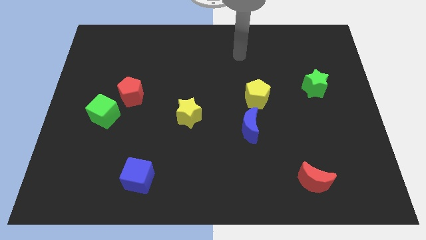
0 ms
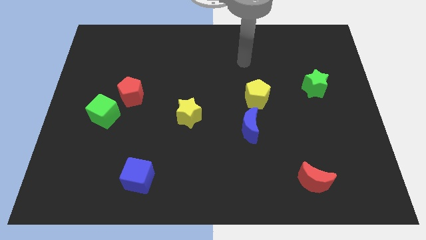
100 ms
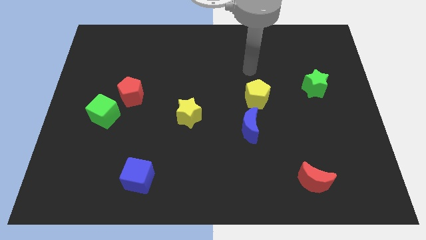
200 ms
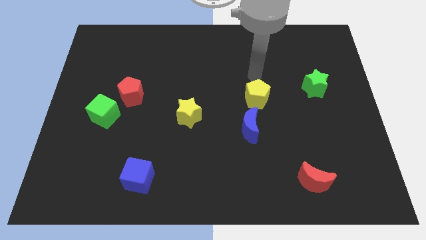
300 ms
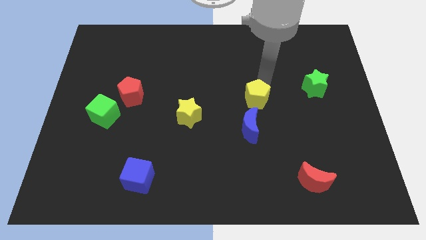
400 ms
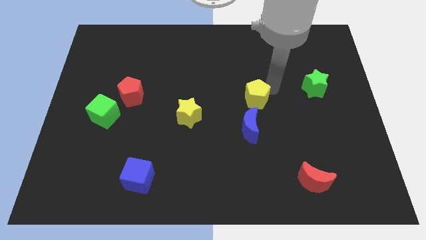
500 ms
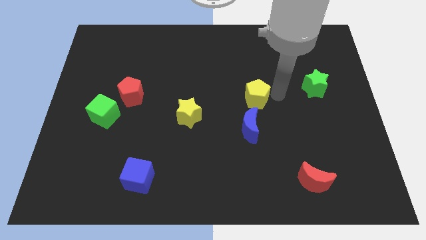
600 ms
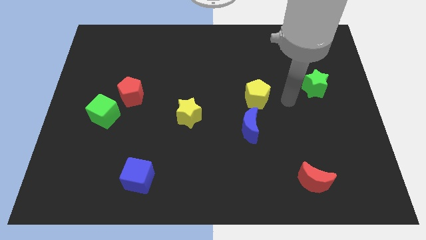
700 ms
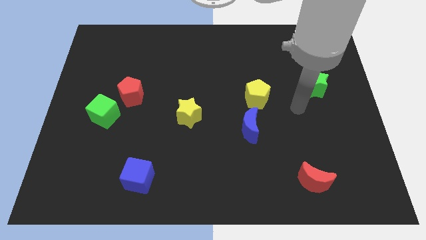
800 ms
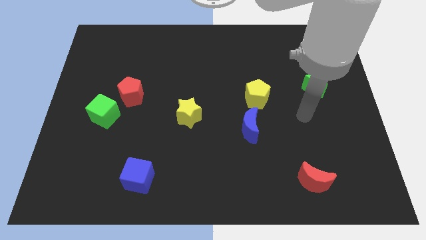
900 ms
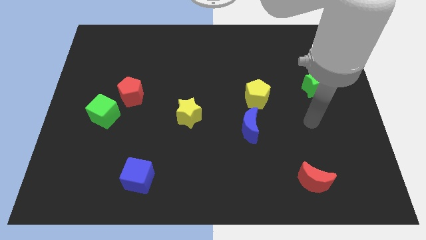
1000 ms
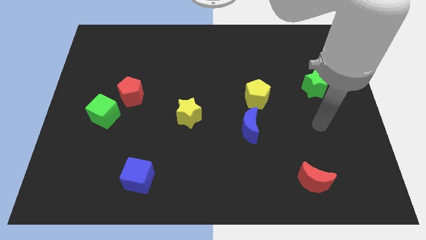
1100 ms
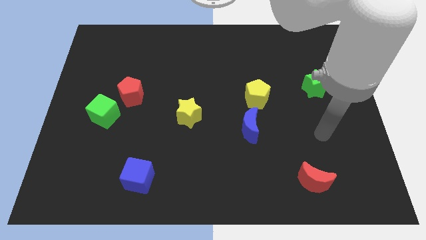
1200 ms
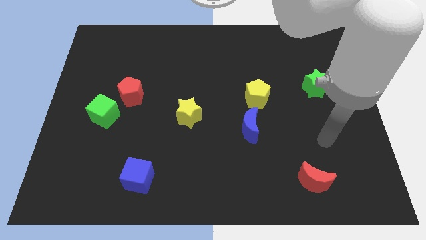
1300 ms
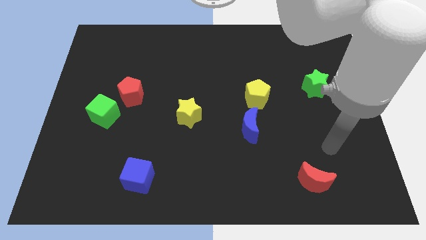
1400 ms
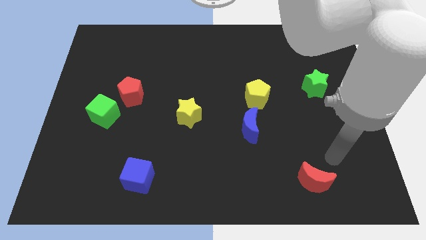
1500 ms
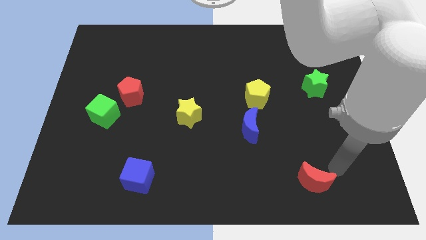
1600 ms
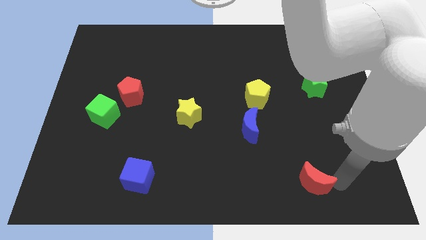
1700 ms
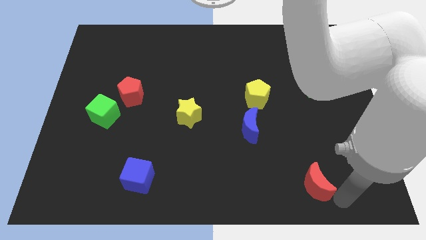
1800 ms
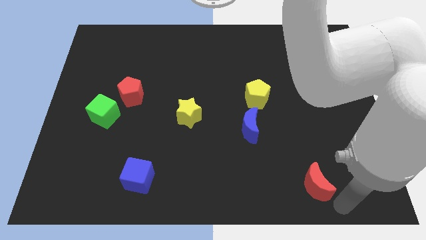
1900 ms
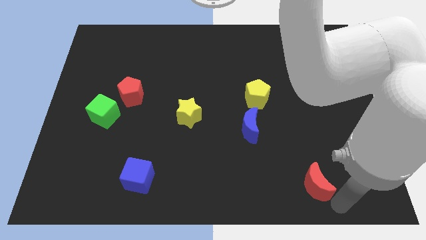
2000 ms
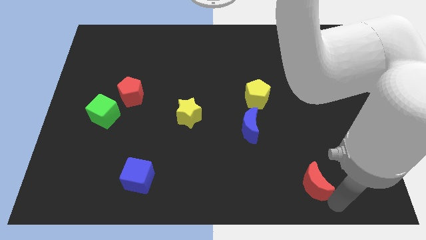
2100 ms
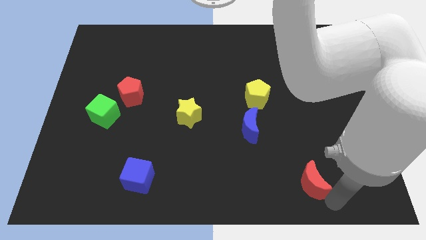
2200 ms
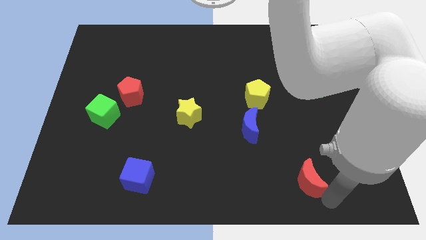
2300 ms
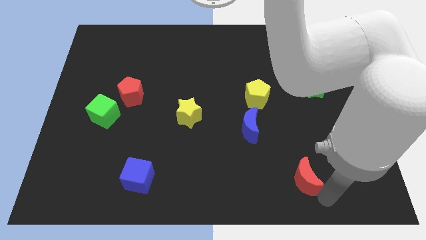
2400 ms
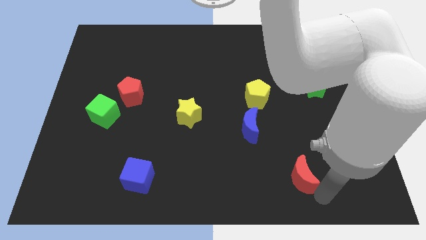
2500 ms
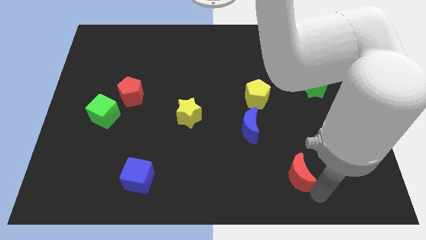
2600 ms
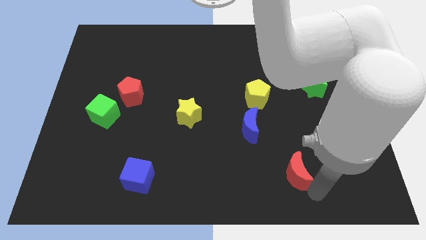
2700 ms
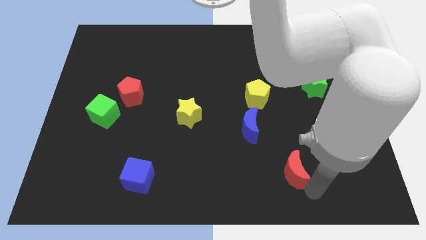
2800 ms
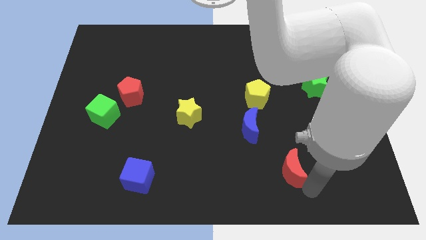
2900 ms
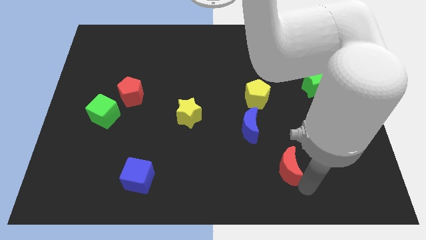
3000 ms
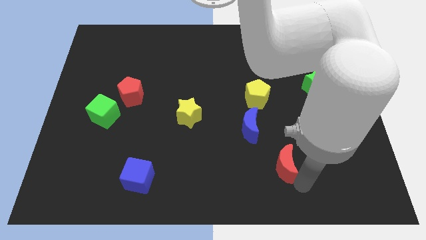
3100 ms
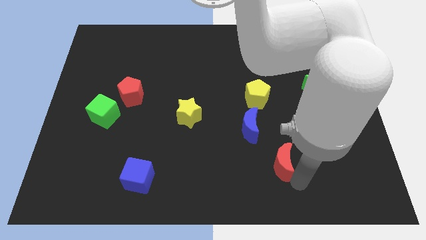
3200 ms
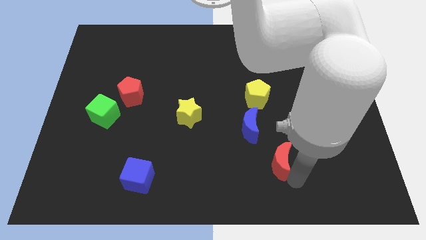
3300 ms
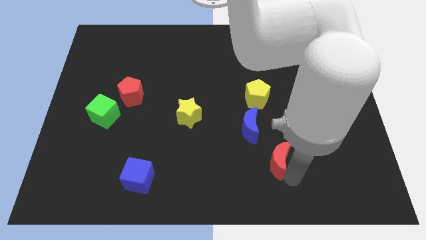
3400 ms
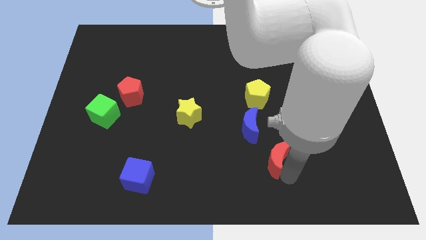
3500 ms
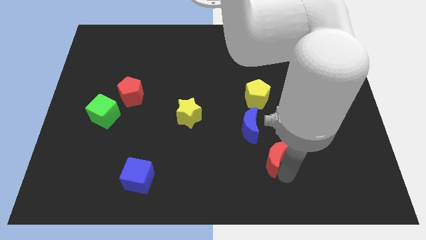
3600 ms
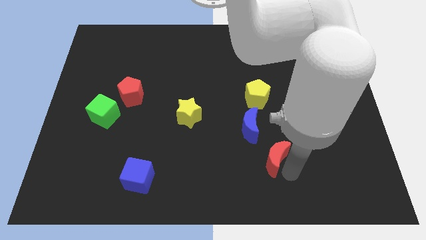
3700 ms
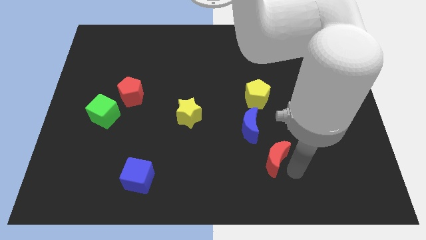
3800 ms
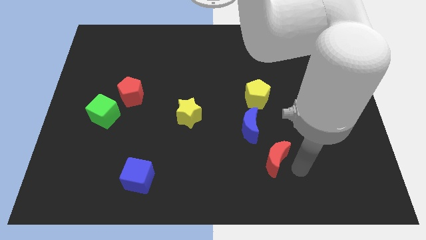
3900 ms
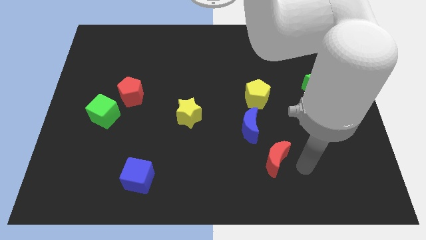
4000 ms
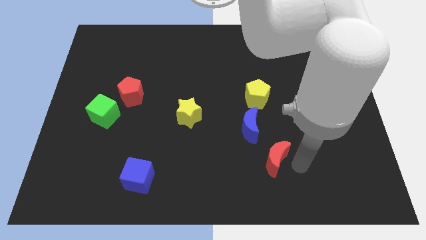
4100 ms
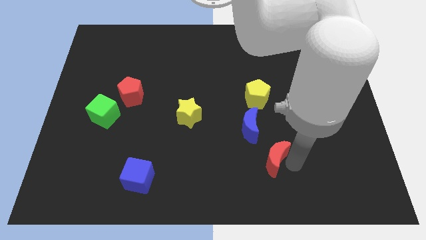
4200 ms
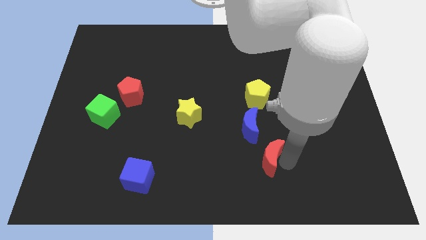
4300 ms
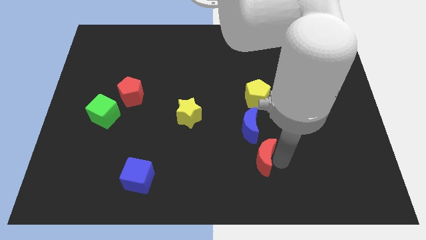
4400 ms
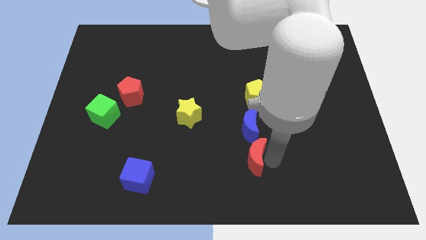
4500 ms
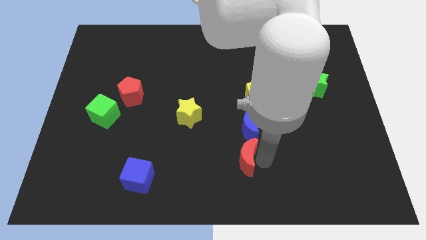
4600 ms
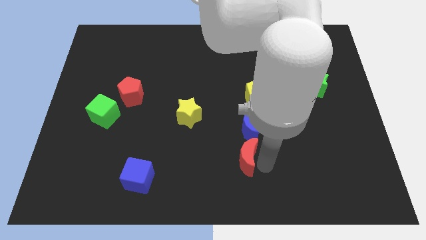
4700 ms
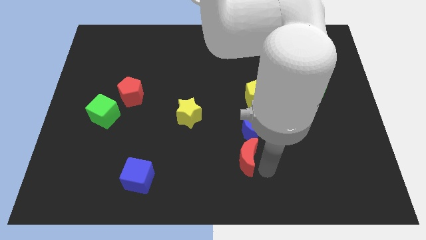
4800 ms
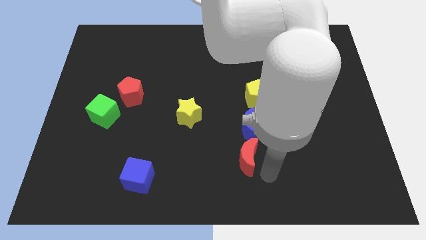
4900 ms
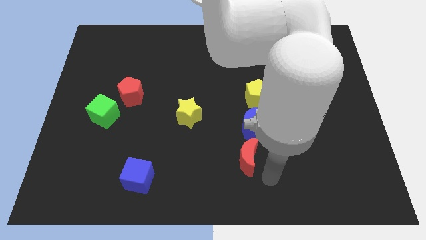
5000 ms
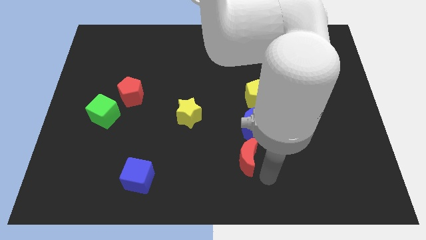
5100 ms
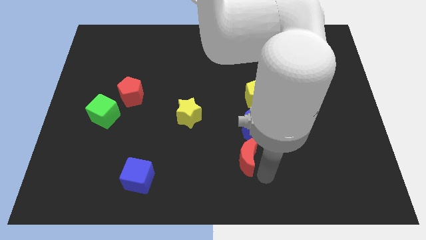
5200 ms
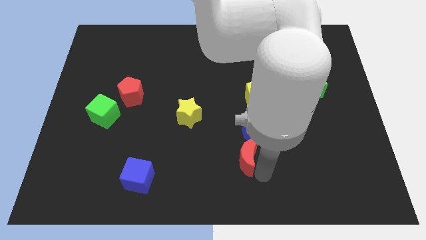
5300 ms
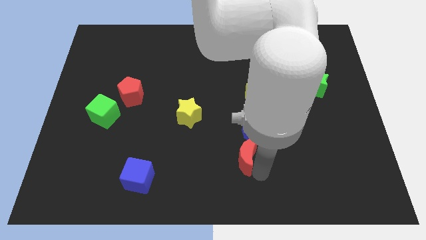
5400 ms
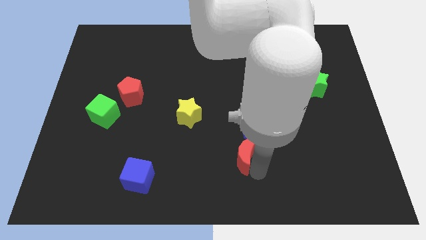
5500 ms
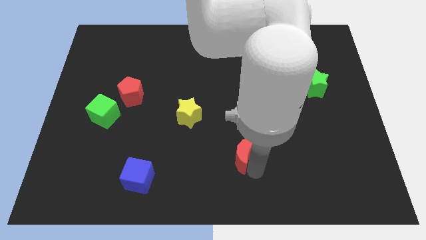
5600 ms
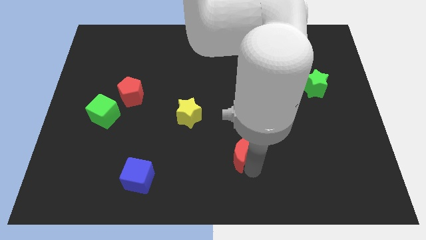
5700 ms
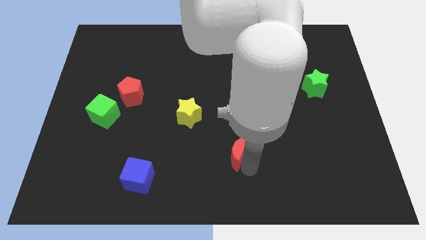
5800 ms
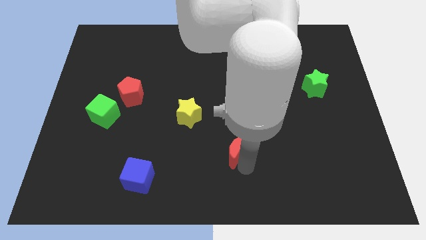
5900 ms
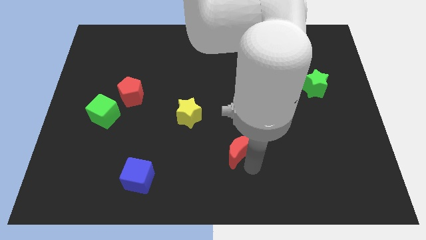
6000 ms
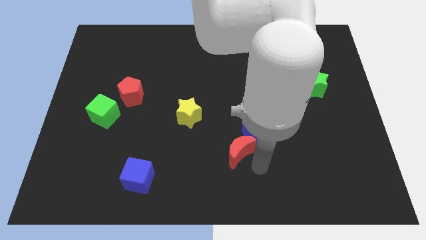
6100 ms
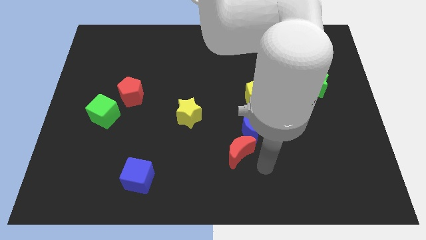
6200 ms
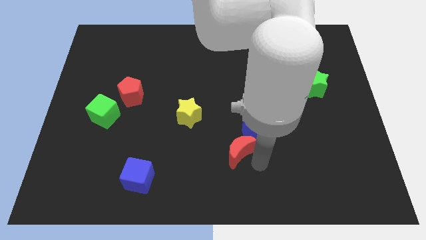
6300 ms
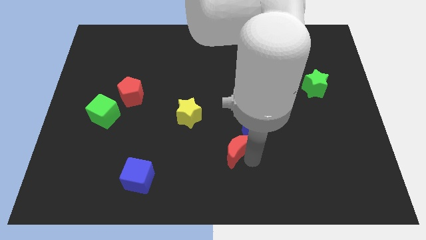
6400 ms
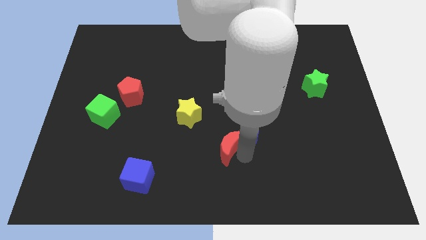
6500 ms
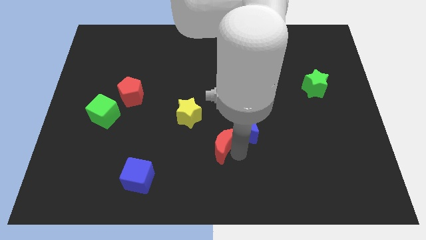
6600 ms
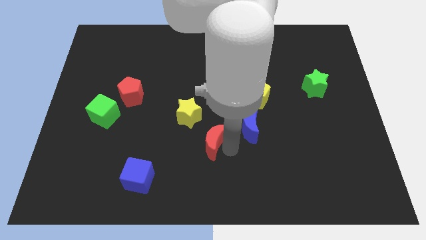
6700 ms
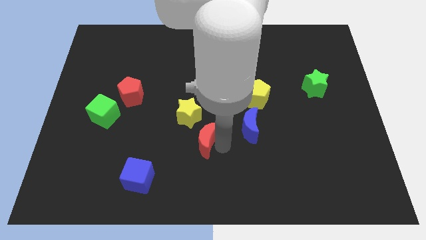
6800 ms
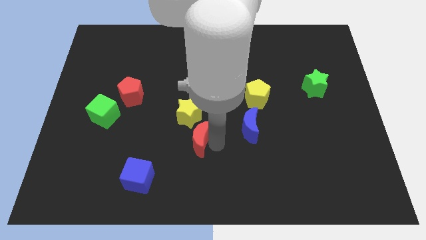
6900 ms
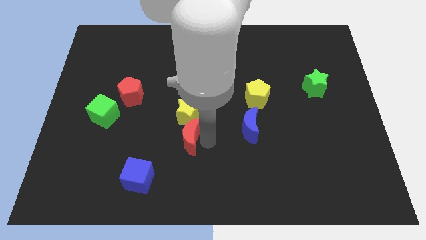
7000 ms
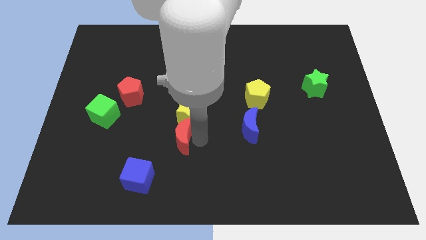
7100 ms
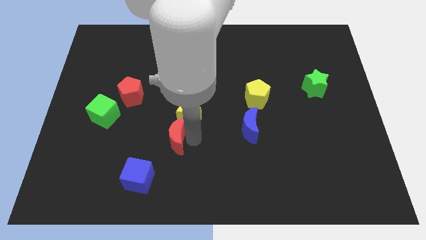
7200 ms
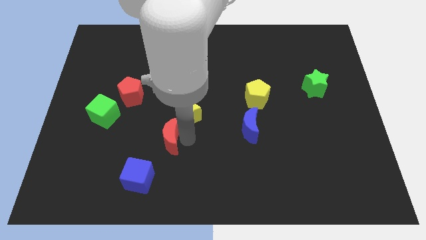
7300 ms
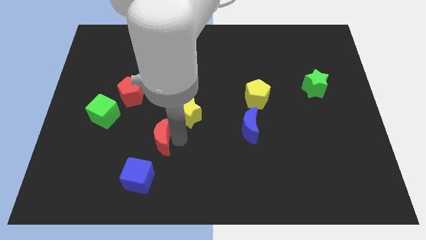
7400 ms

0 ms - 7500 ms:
push the red moon to the top side of the blue cube
